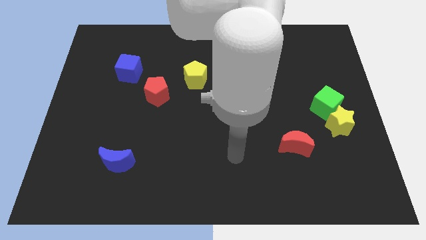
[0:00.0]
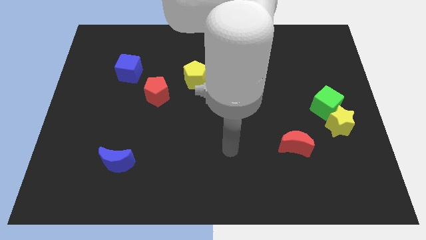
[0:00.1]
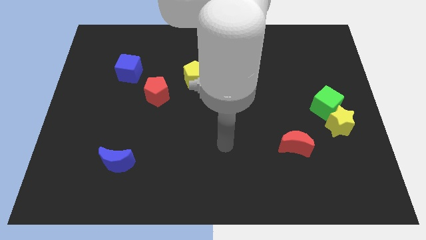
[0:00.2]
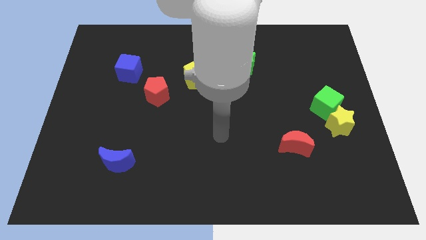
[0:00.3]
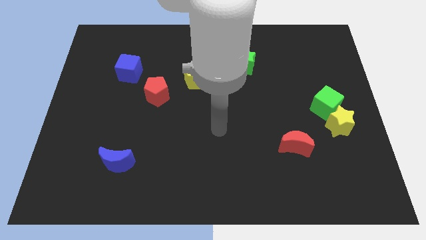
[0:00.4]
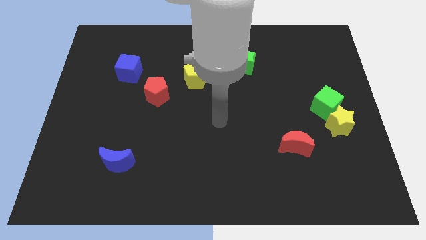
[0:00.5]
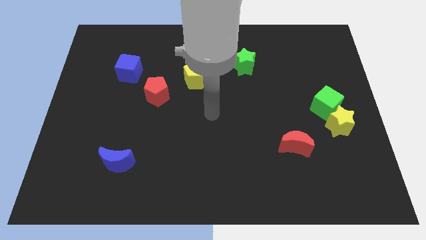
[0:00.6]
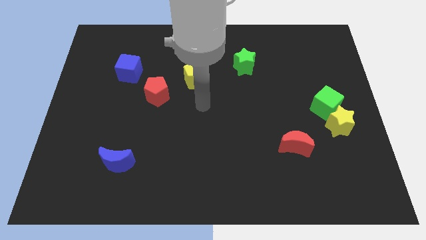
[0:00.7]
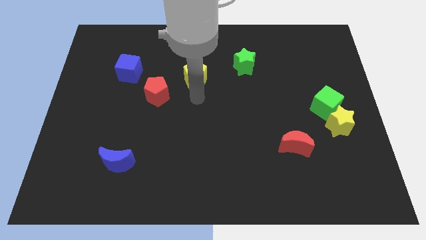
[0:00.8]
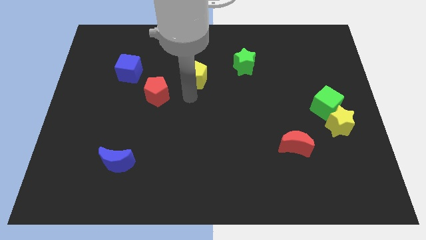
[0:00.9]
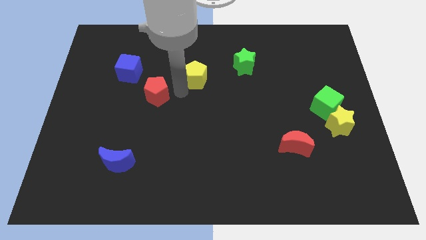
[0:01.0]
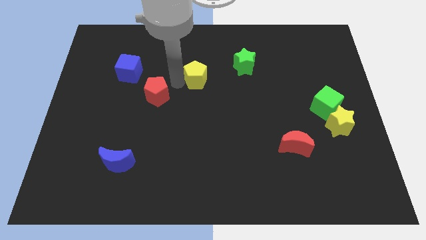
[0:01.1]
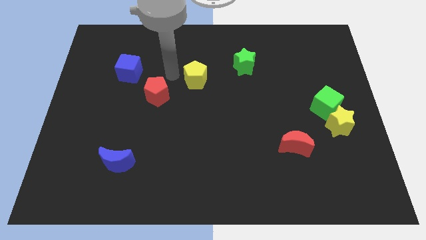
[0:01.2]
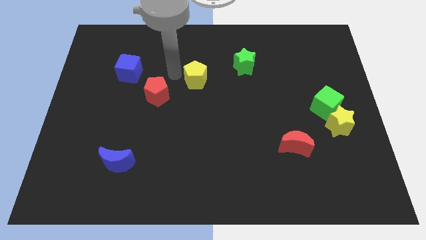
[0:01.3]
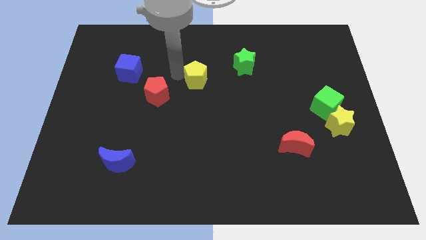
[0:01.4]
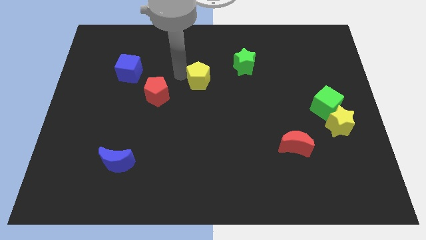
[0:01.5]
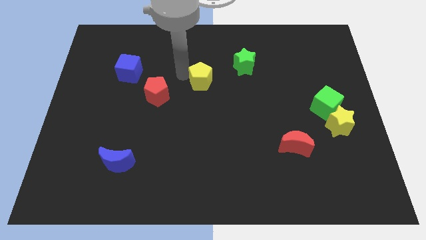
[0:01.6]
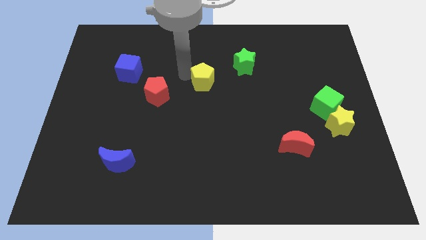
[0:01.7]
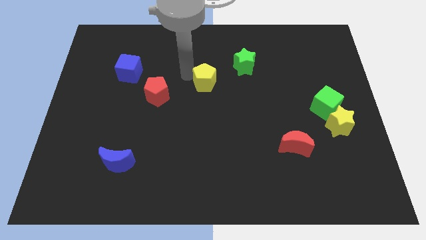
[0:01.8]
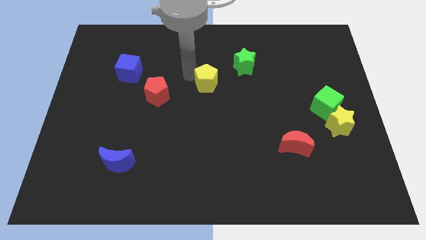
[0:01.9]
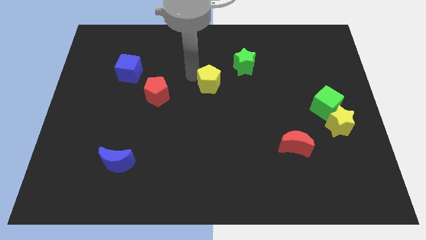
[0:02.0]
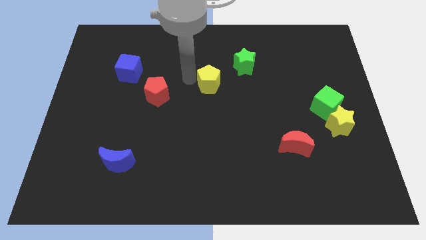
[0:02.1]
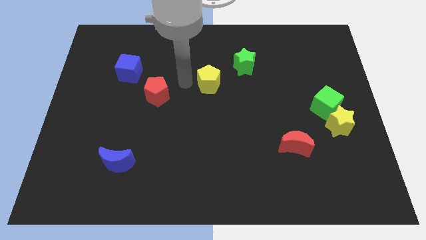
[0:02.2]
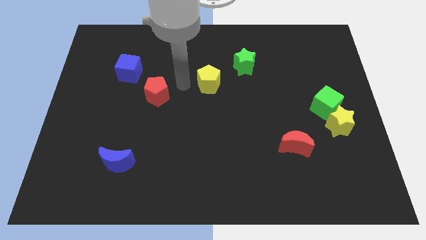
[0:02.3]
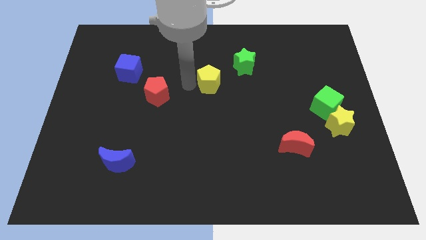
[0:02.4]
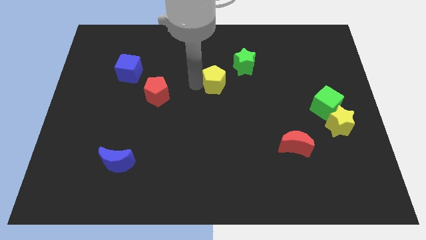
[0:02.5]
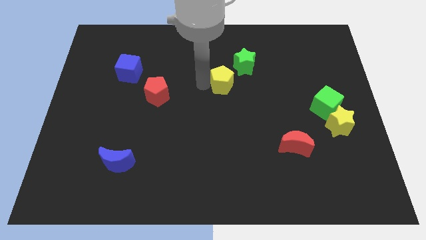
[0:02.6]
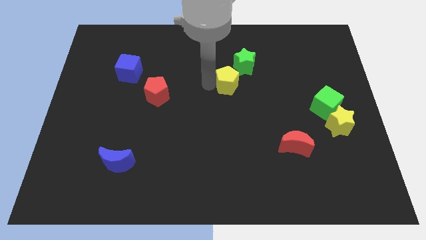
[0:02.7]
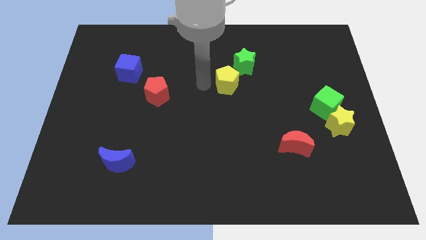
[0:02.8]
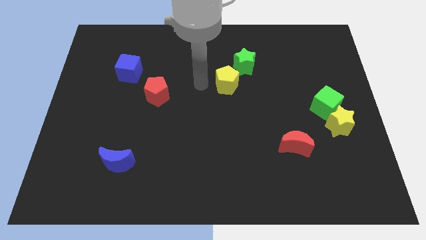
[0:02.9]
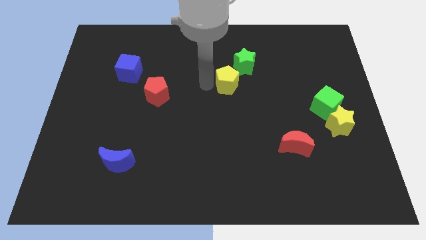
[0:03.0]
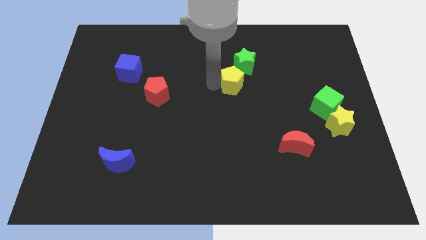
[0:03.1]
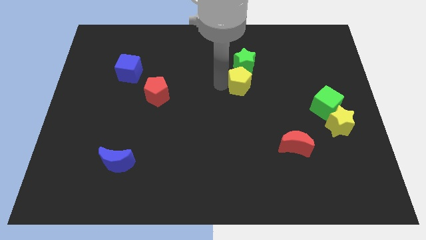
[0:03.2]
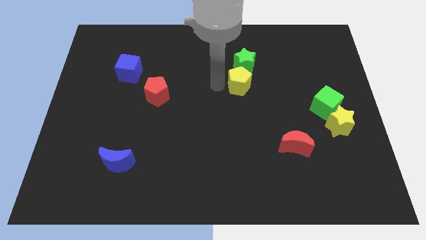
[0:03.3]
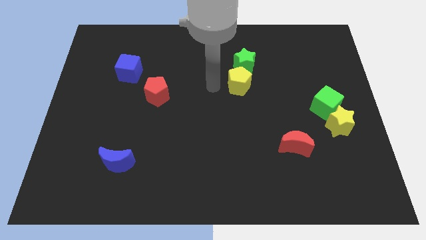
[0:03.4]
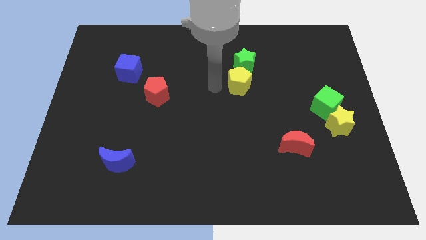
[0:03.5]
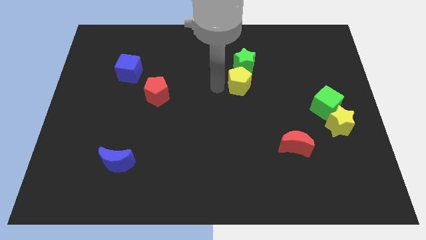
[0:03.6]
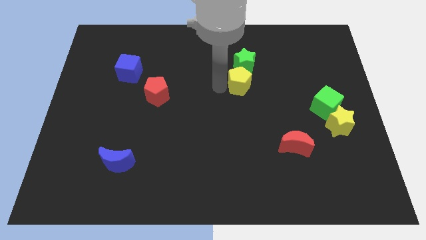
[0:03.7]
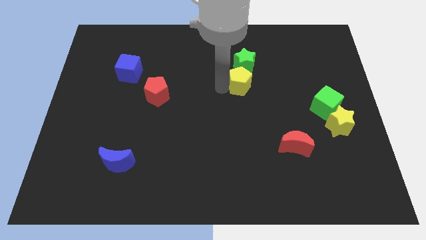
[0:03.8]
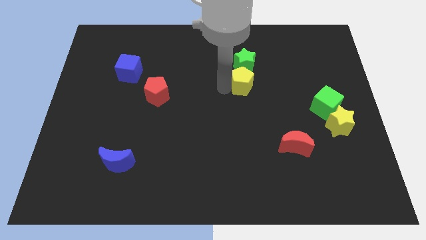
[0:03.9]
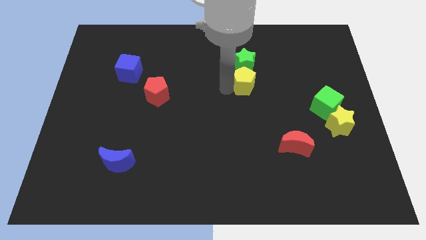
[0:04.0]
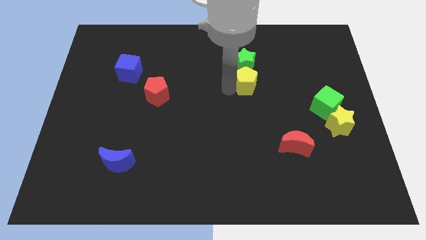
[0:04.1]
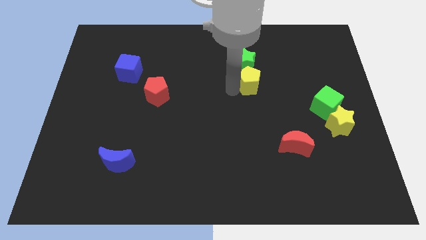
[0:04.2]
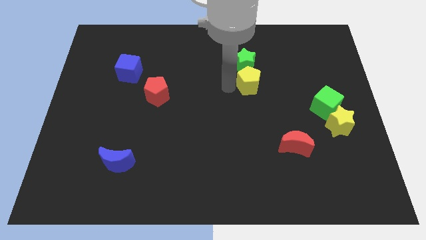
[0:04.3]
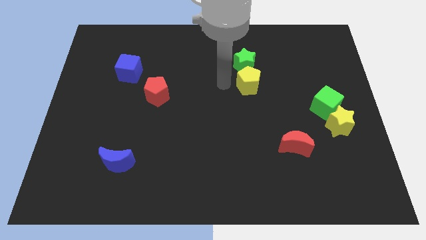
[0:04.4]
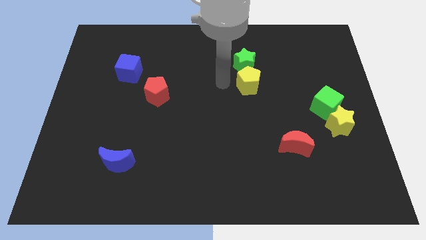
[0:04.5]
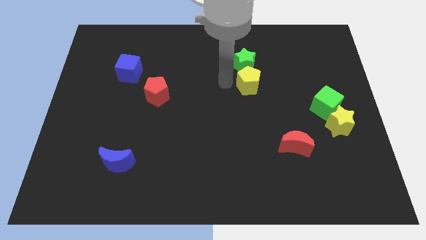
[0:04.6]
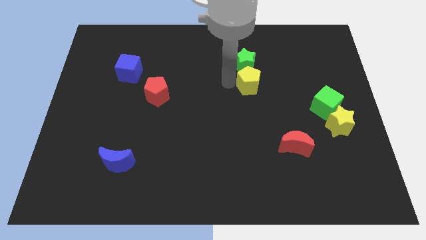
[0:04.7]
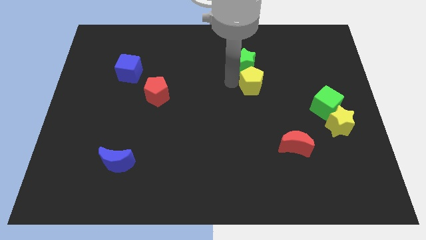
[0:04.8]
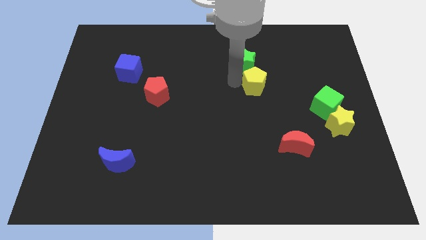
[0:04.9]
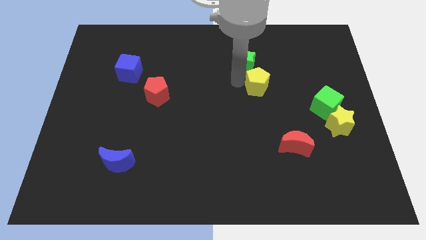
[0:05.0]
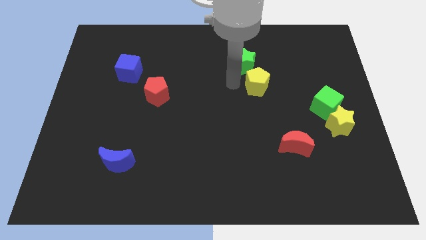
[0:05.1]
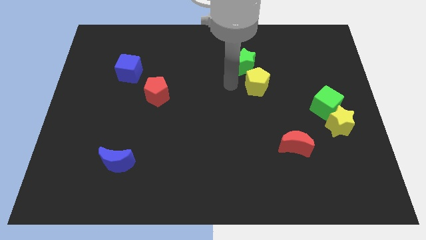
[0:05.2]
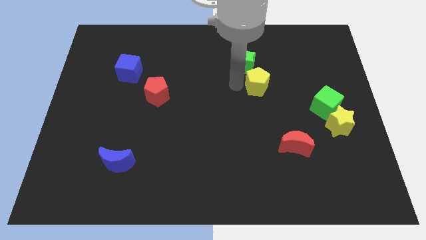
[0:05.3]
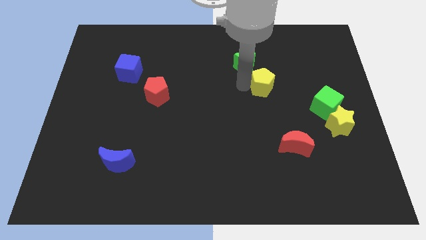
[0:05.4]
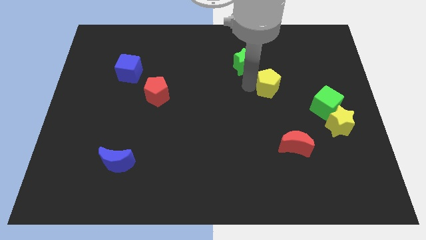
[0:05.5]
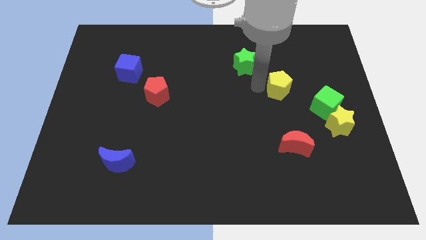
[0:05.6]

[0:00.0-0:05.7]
put the yellow pentagon to the top left of the green cube

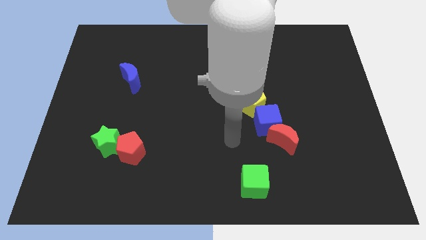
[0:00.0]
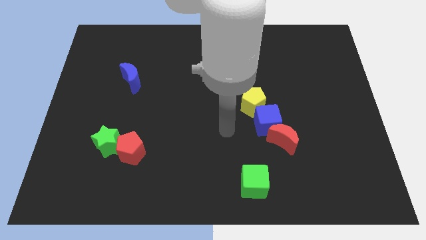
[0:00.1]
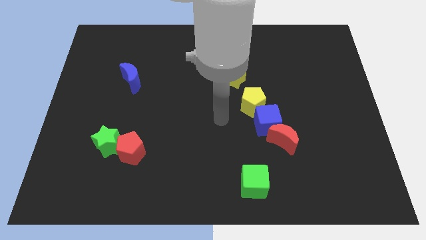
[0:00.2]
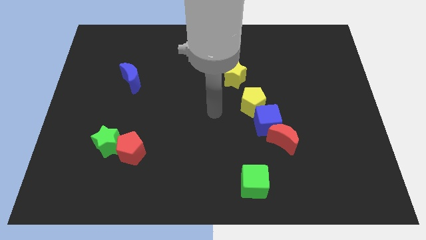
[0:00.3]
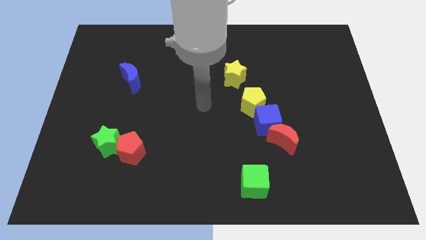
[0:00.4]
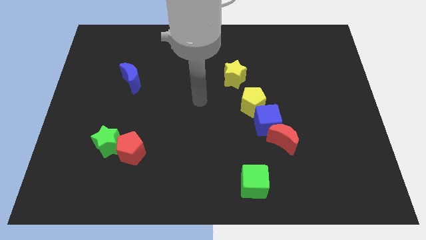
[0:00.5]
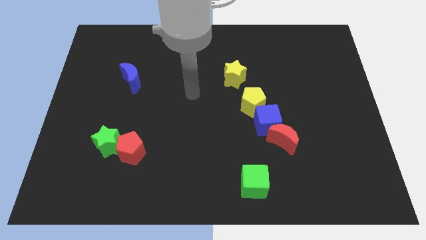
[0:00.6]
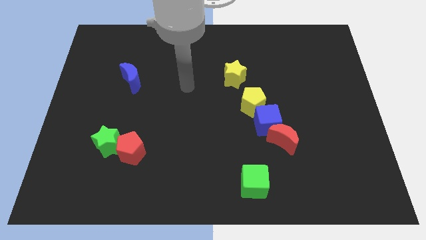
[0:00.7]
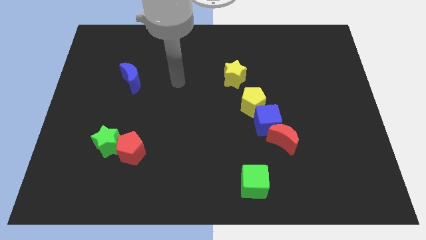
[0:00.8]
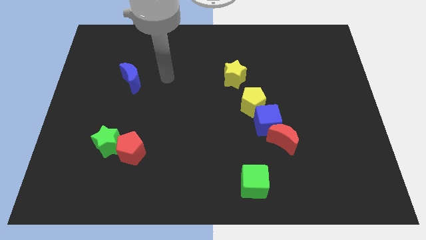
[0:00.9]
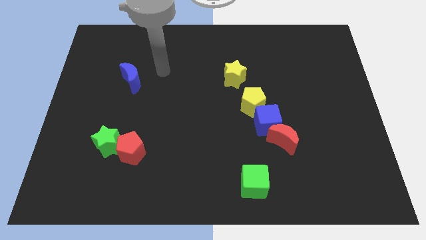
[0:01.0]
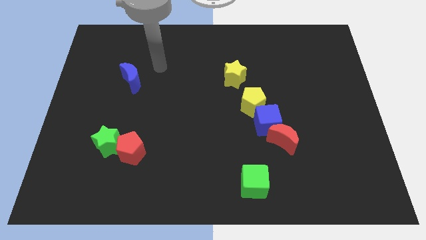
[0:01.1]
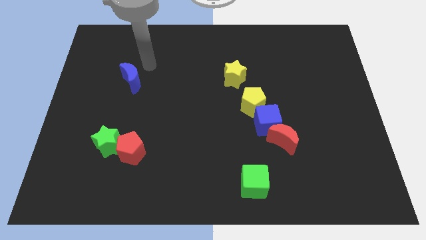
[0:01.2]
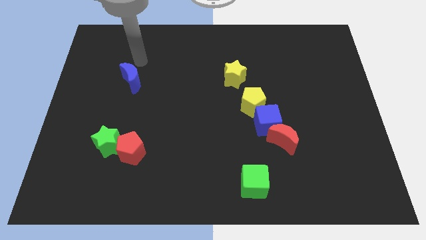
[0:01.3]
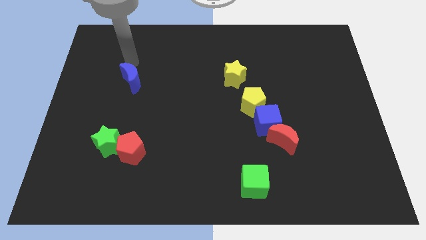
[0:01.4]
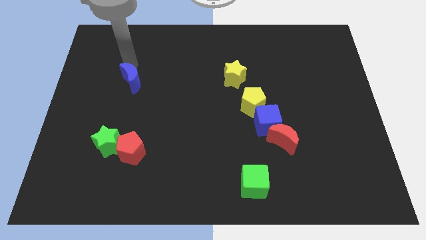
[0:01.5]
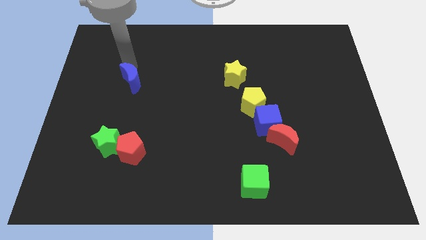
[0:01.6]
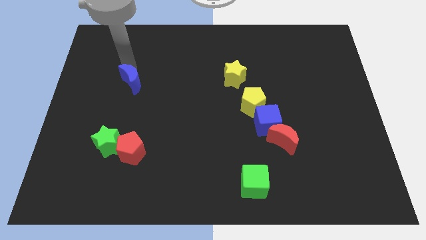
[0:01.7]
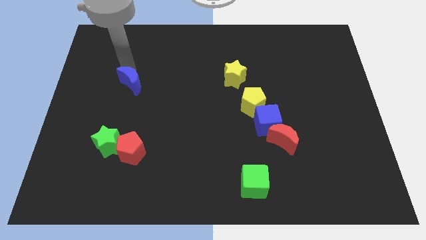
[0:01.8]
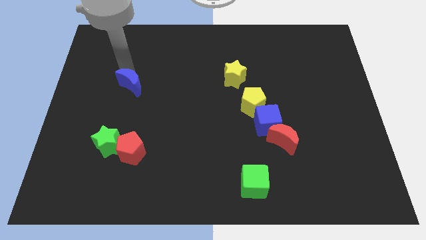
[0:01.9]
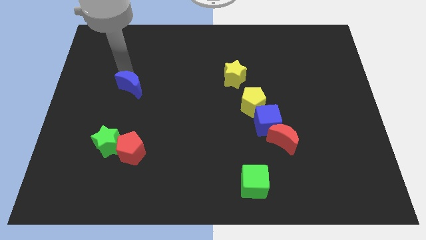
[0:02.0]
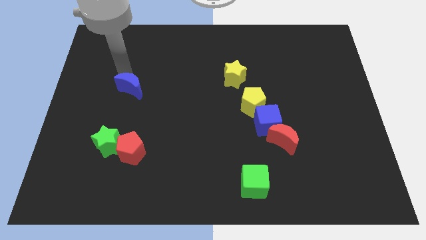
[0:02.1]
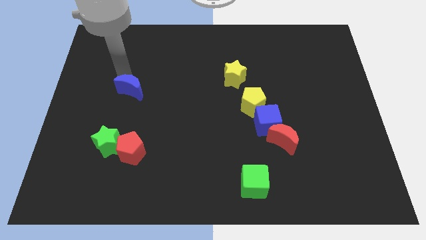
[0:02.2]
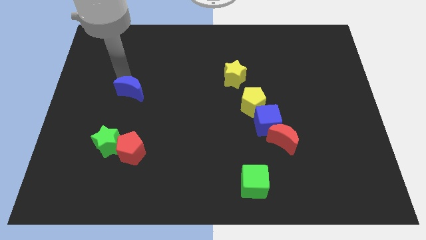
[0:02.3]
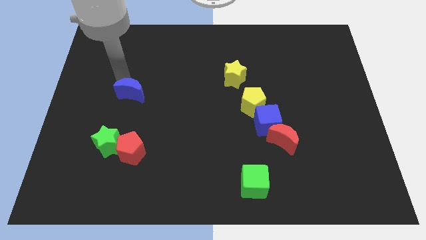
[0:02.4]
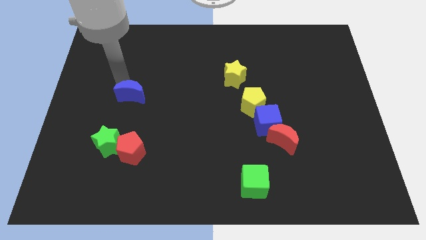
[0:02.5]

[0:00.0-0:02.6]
push the blue moon above the red pentagon
